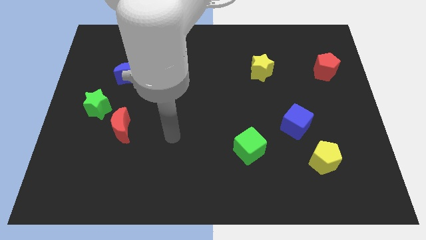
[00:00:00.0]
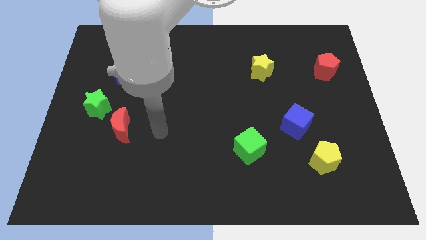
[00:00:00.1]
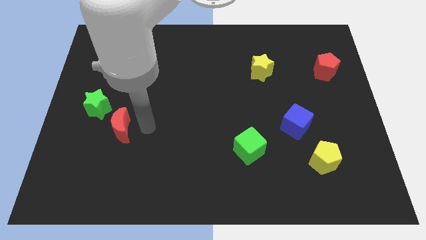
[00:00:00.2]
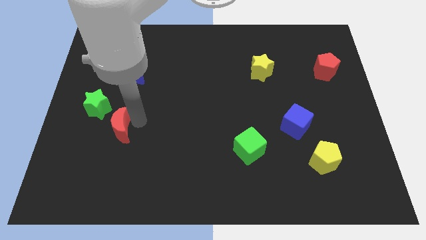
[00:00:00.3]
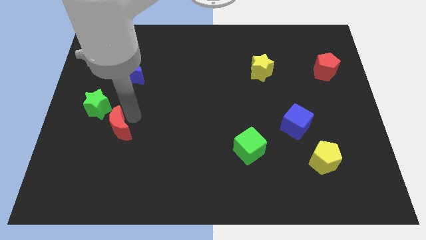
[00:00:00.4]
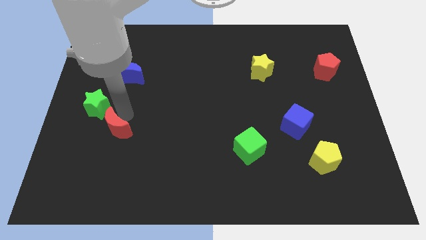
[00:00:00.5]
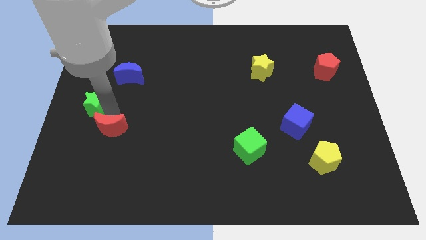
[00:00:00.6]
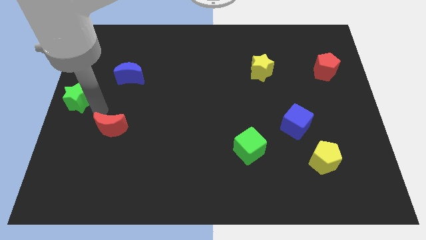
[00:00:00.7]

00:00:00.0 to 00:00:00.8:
move the red moon away from the green star

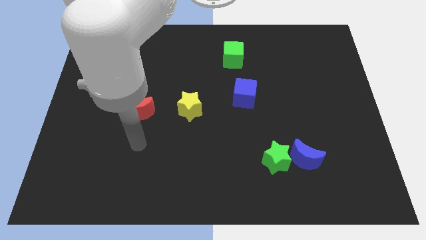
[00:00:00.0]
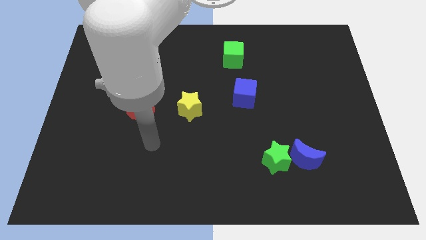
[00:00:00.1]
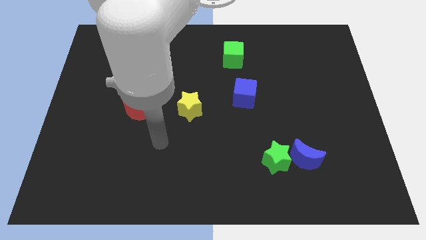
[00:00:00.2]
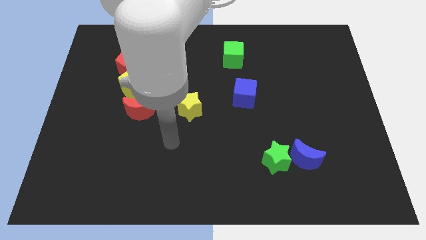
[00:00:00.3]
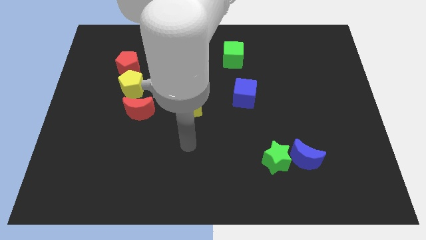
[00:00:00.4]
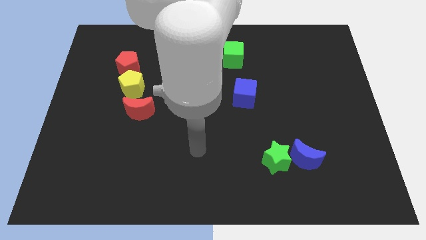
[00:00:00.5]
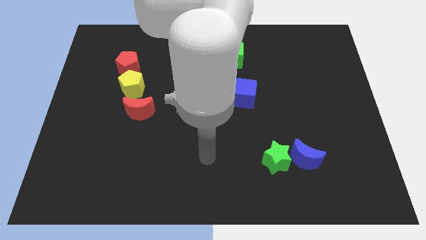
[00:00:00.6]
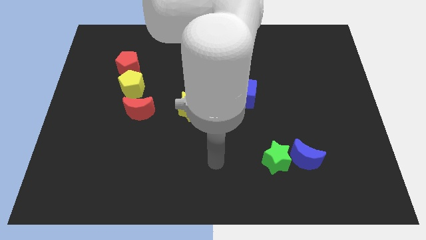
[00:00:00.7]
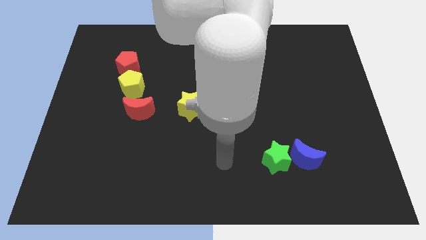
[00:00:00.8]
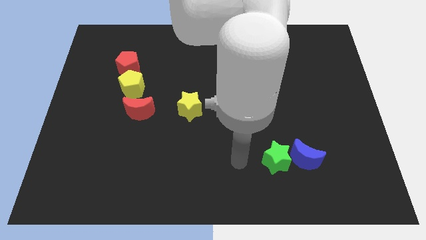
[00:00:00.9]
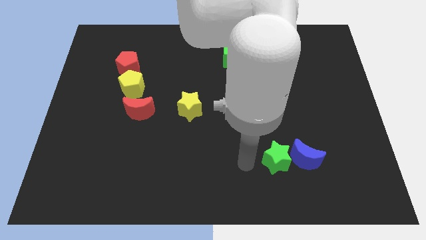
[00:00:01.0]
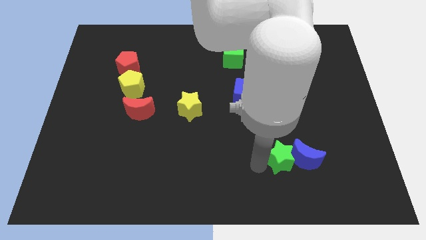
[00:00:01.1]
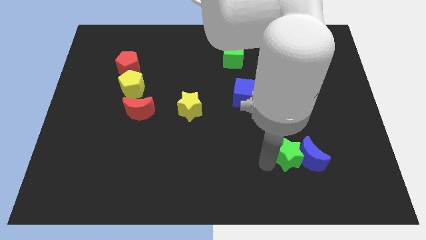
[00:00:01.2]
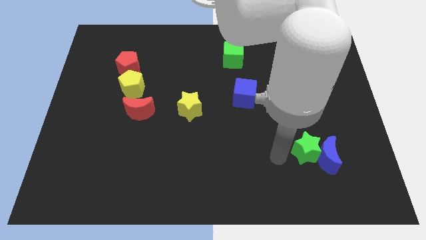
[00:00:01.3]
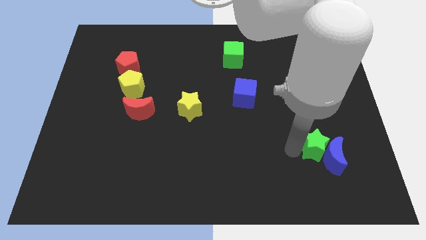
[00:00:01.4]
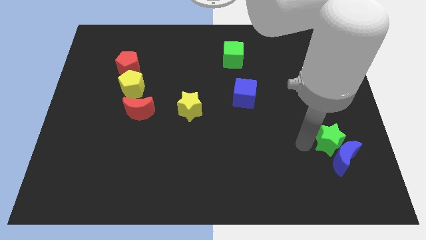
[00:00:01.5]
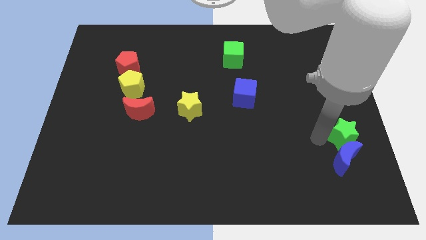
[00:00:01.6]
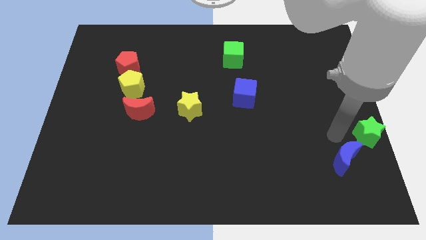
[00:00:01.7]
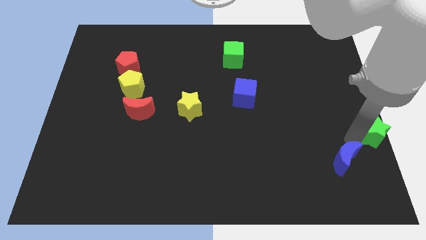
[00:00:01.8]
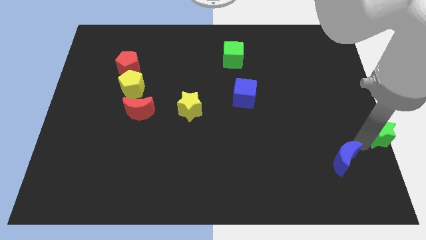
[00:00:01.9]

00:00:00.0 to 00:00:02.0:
move the blue moon away from the green star

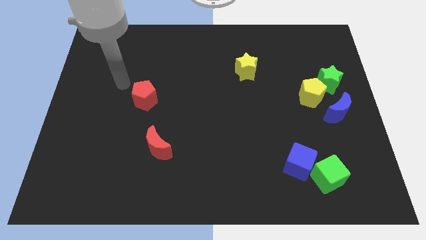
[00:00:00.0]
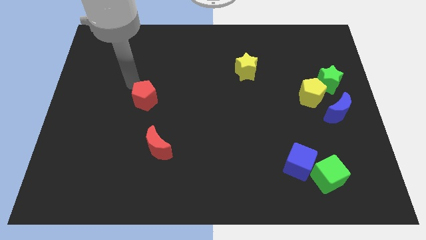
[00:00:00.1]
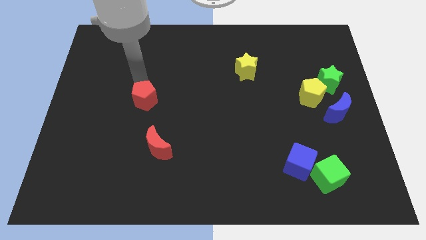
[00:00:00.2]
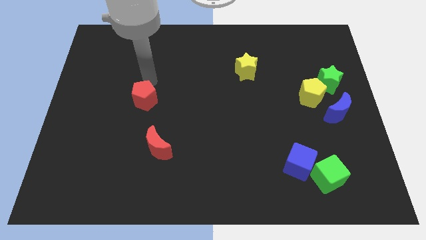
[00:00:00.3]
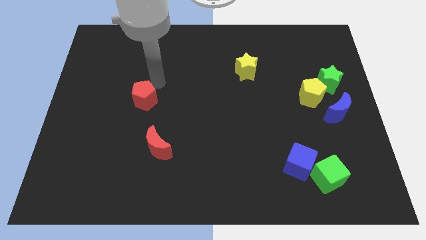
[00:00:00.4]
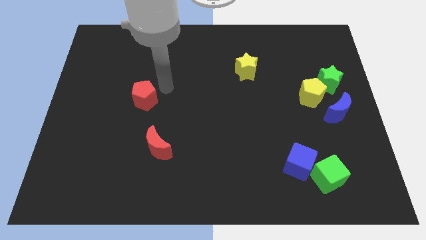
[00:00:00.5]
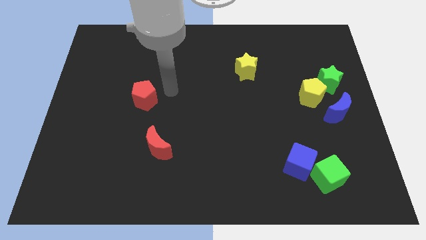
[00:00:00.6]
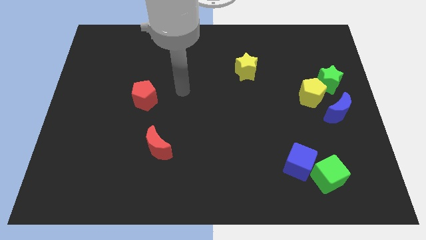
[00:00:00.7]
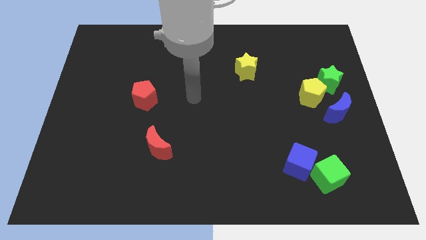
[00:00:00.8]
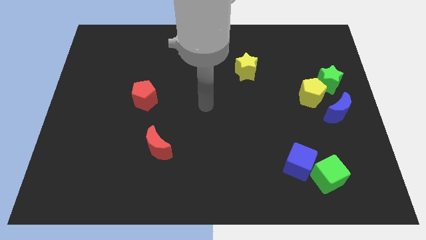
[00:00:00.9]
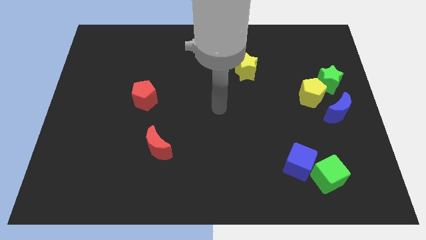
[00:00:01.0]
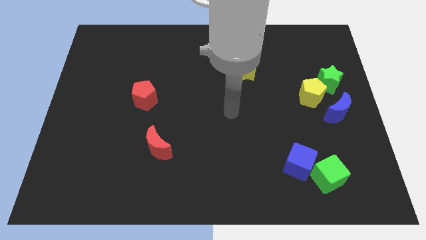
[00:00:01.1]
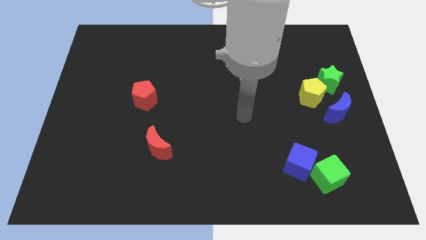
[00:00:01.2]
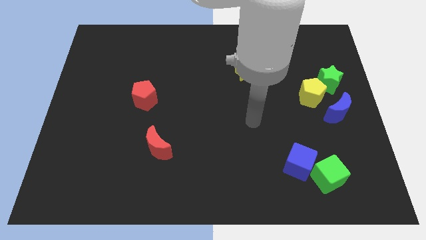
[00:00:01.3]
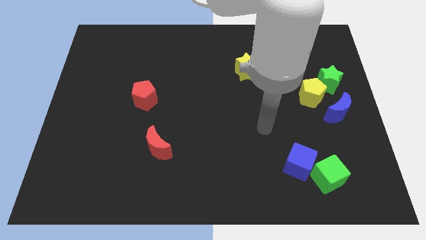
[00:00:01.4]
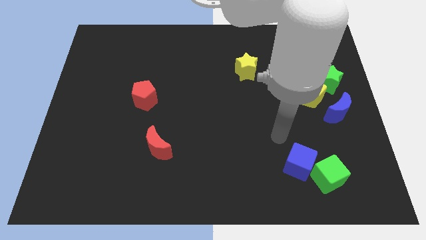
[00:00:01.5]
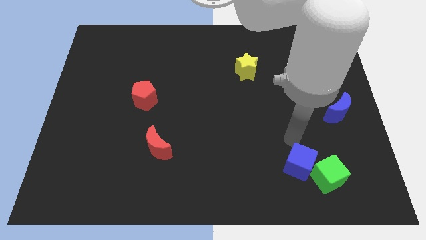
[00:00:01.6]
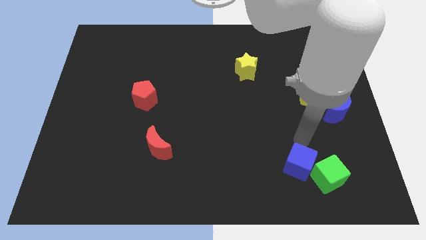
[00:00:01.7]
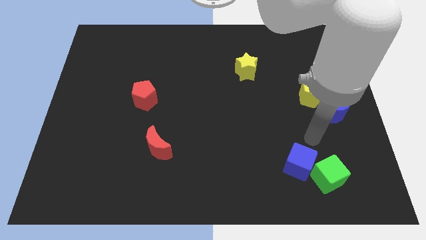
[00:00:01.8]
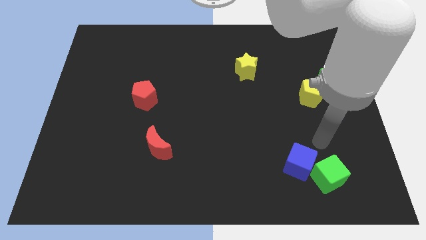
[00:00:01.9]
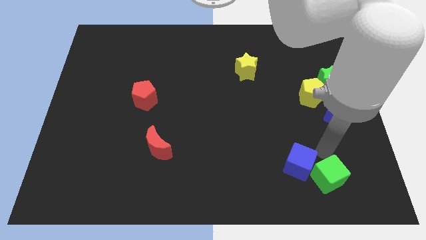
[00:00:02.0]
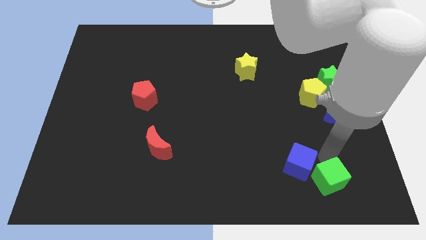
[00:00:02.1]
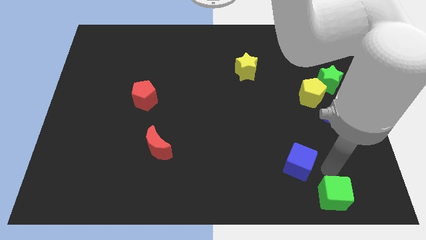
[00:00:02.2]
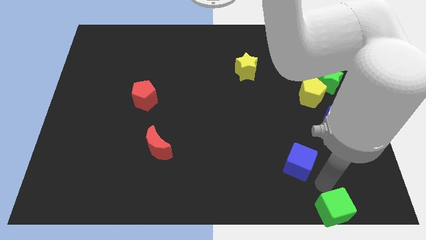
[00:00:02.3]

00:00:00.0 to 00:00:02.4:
separate the blue cube from the green cube

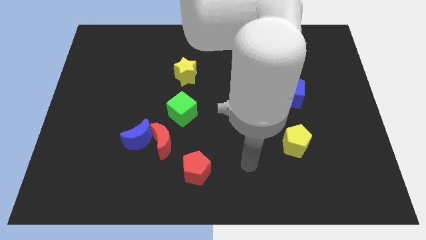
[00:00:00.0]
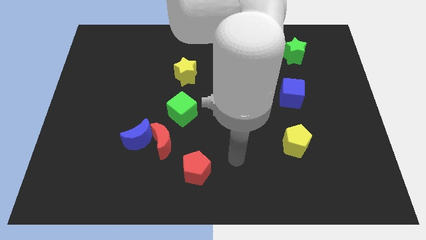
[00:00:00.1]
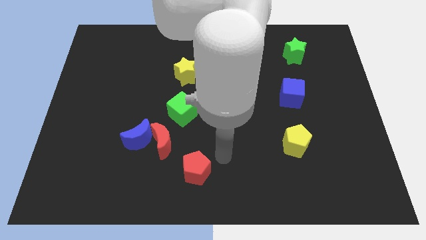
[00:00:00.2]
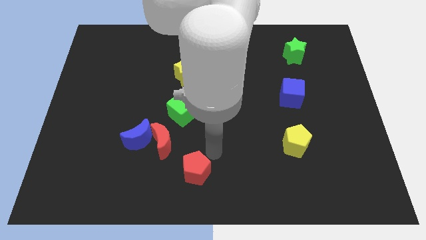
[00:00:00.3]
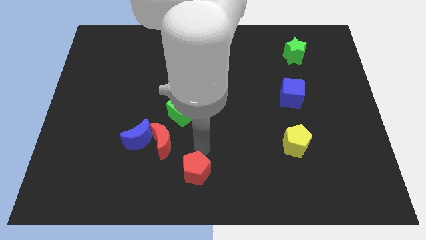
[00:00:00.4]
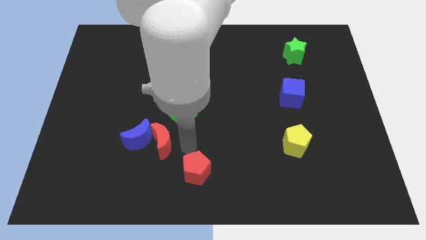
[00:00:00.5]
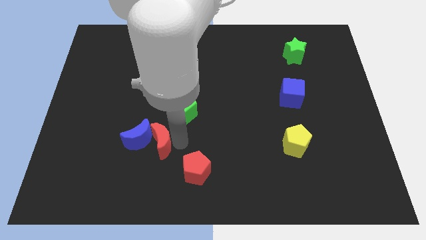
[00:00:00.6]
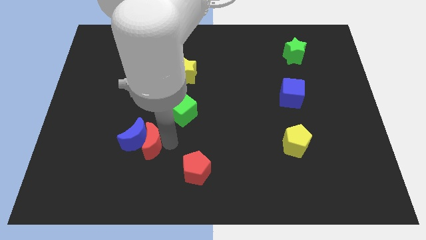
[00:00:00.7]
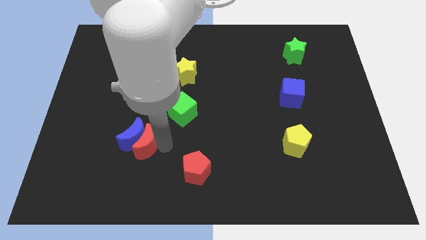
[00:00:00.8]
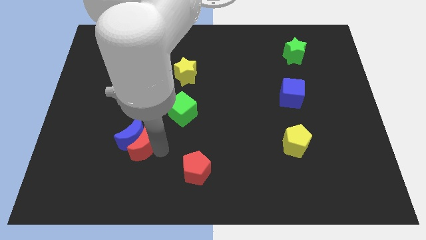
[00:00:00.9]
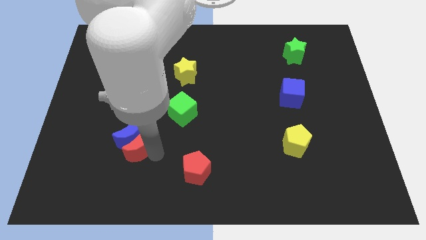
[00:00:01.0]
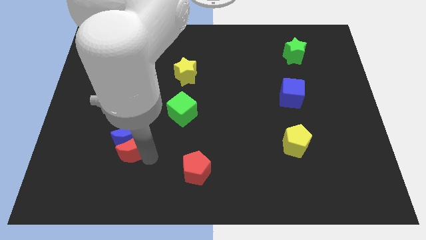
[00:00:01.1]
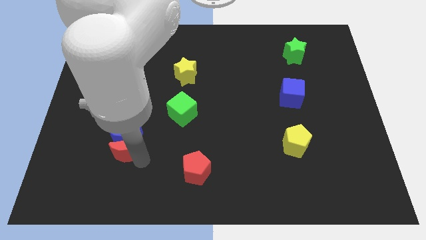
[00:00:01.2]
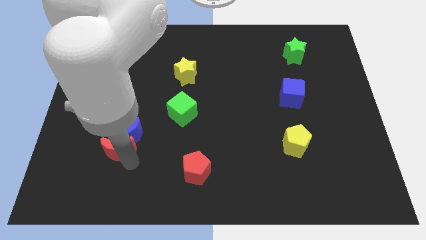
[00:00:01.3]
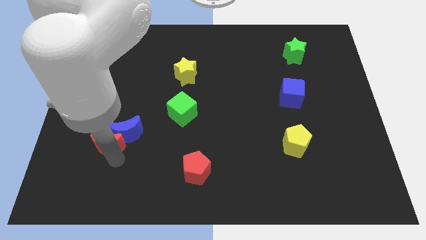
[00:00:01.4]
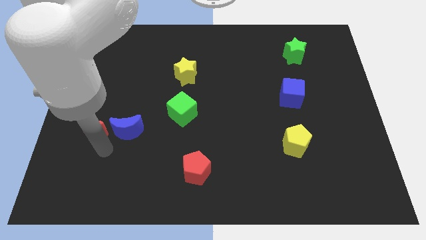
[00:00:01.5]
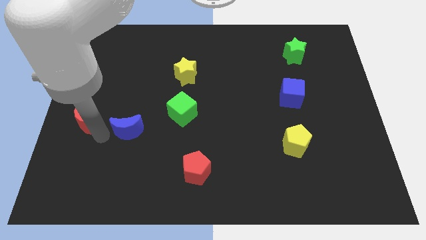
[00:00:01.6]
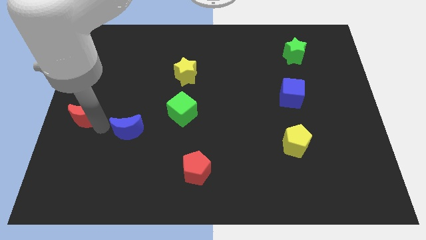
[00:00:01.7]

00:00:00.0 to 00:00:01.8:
separate the blue moon from the red moon

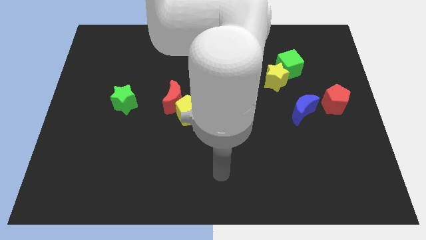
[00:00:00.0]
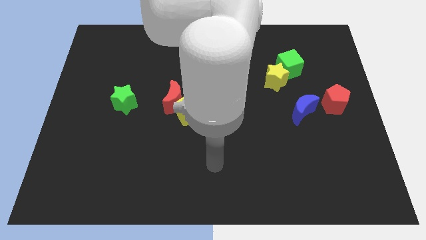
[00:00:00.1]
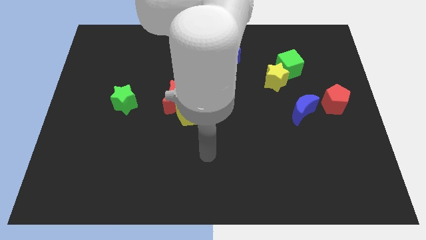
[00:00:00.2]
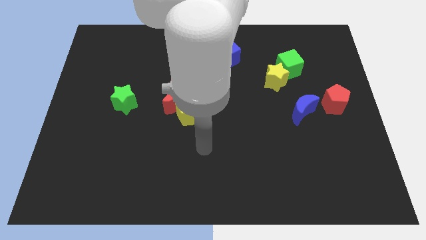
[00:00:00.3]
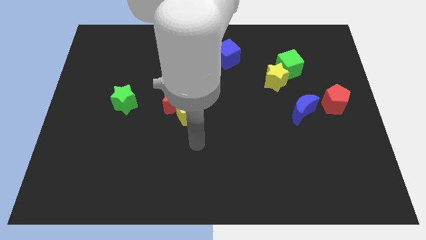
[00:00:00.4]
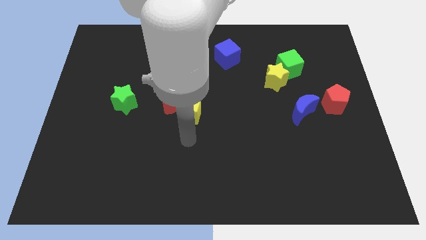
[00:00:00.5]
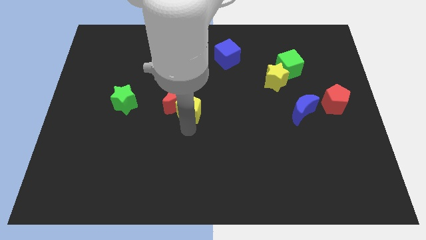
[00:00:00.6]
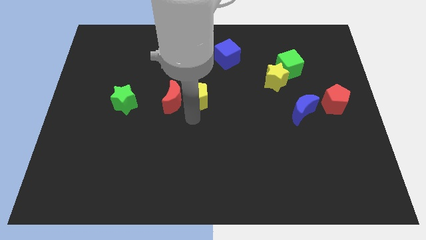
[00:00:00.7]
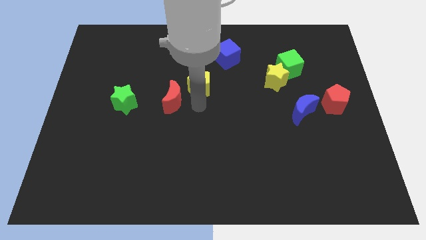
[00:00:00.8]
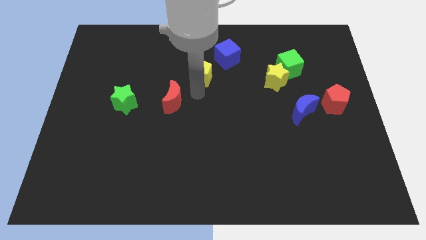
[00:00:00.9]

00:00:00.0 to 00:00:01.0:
move the red moon away from the yellow pentagon

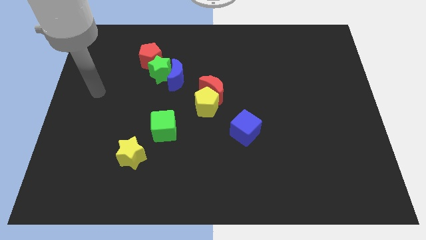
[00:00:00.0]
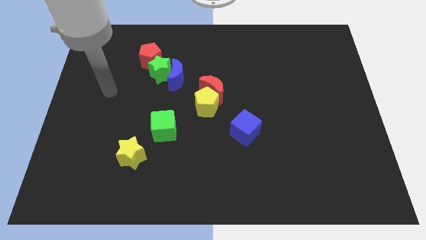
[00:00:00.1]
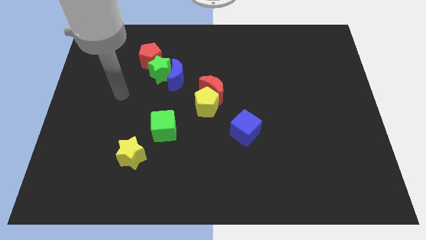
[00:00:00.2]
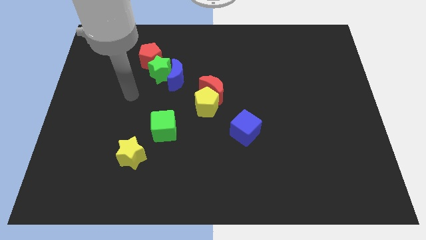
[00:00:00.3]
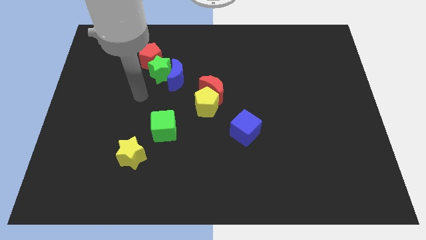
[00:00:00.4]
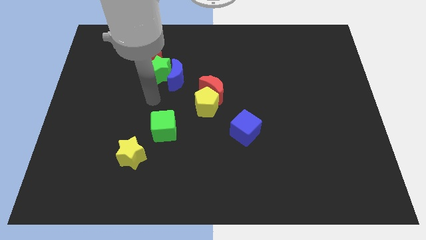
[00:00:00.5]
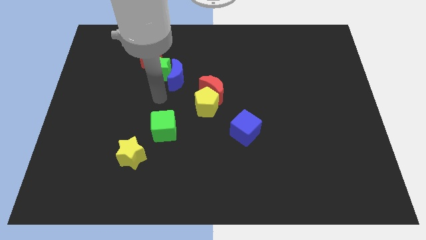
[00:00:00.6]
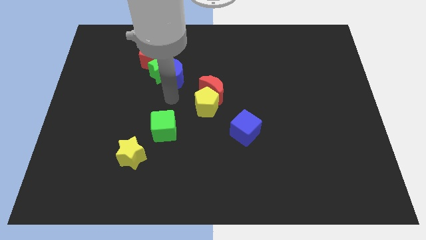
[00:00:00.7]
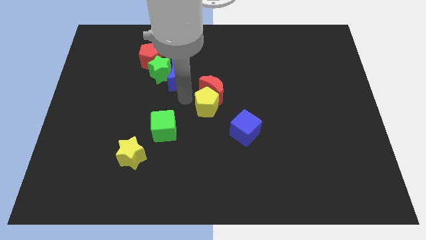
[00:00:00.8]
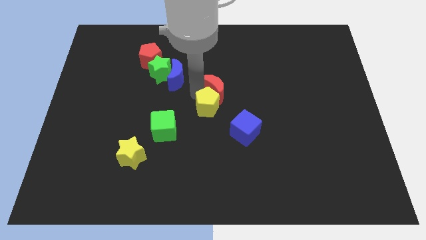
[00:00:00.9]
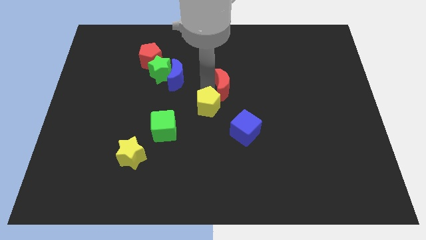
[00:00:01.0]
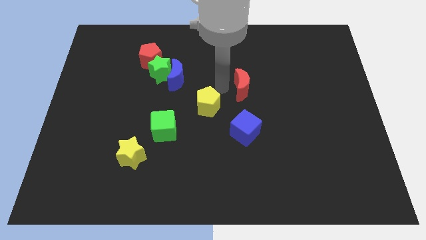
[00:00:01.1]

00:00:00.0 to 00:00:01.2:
pull the yellow pentagon apart from the red moon
